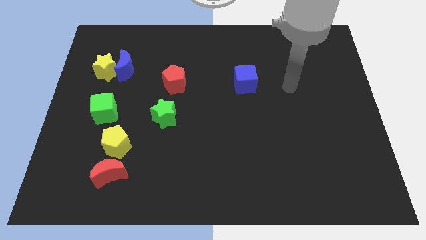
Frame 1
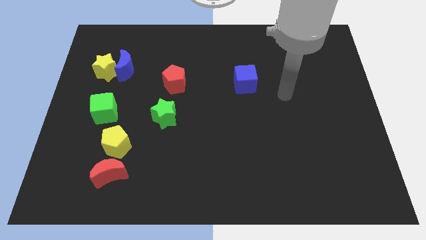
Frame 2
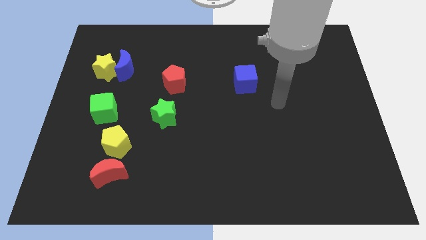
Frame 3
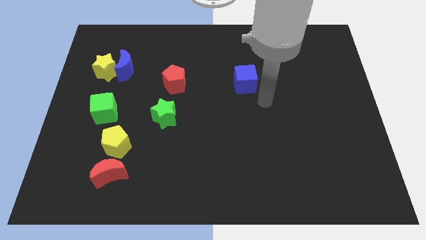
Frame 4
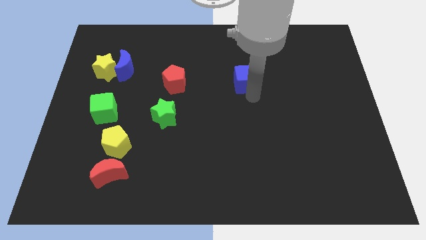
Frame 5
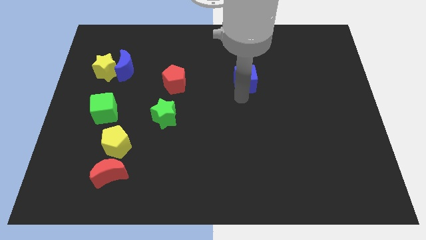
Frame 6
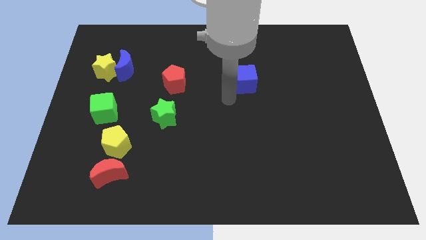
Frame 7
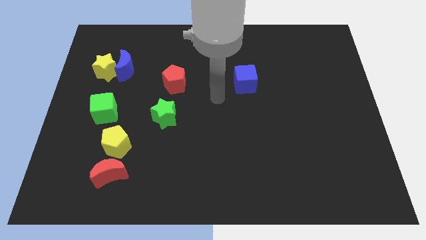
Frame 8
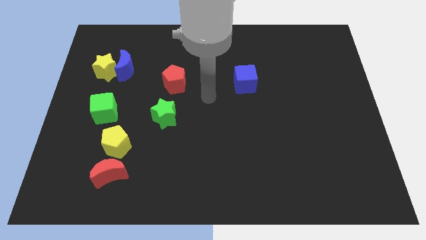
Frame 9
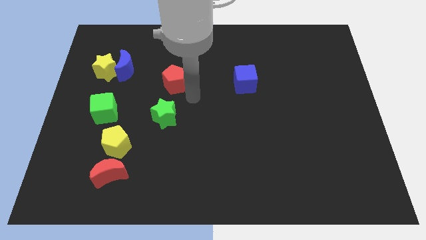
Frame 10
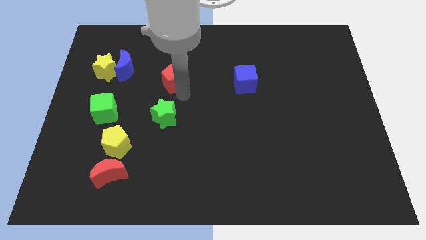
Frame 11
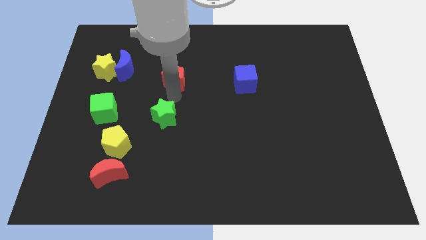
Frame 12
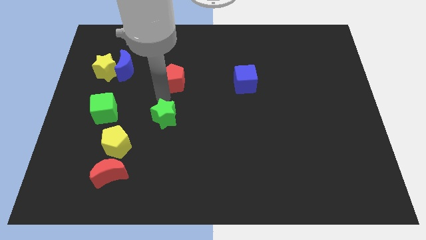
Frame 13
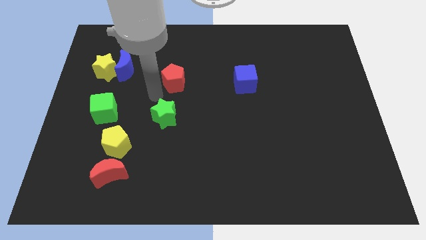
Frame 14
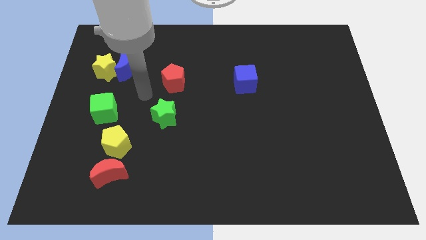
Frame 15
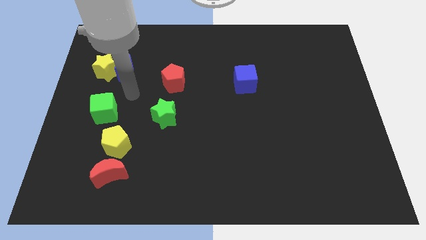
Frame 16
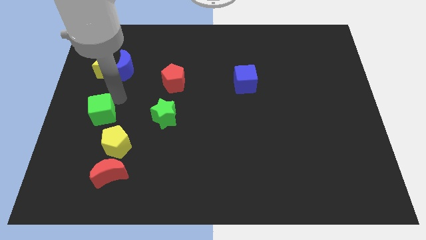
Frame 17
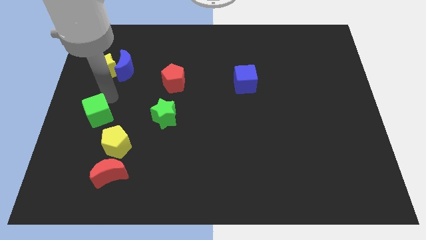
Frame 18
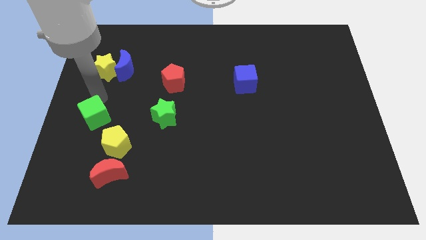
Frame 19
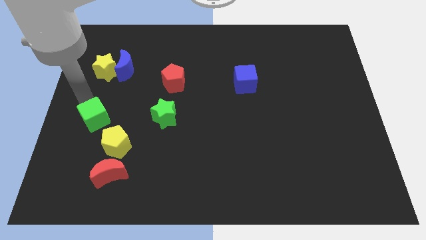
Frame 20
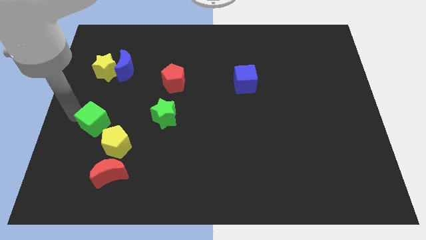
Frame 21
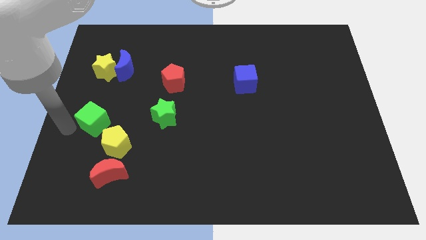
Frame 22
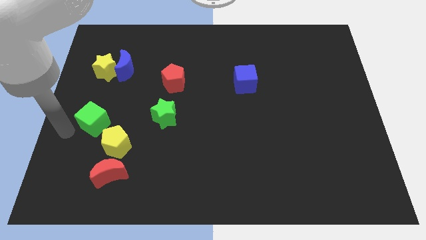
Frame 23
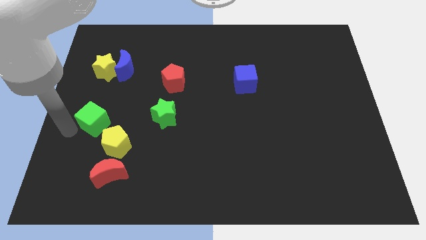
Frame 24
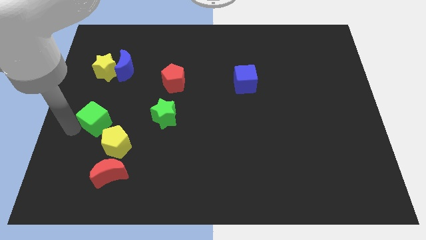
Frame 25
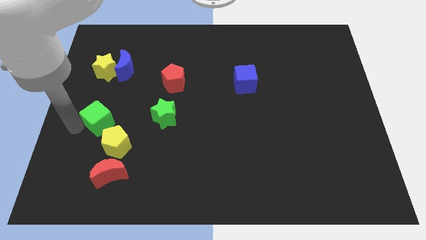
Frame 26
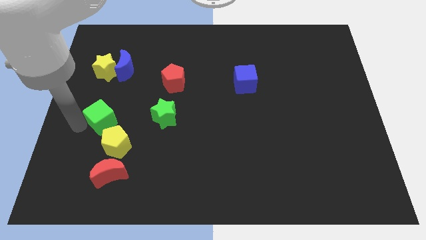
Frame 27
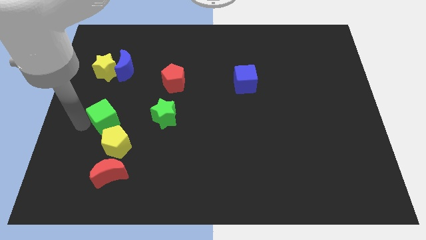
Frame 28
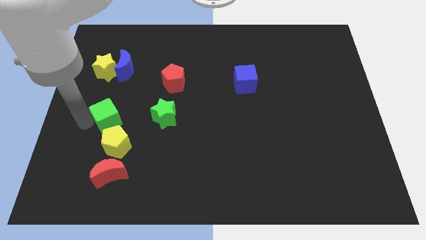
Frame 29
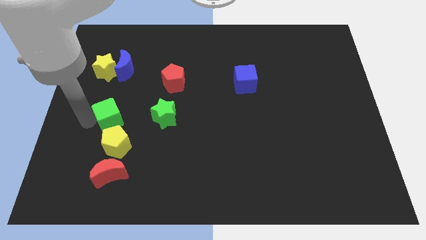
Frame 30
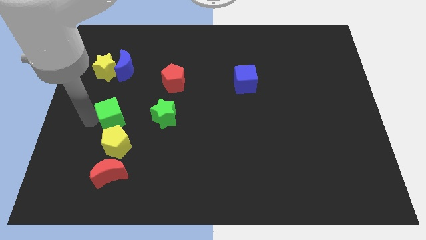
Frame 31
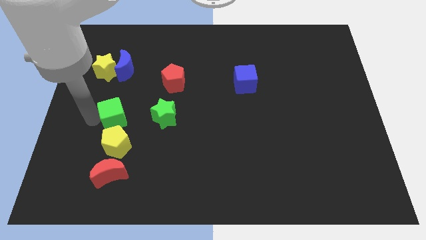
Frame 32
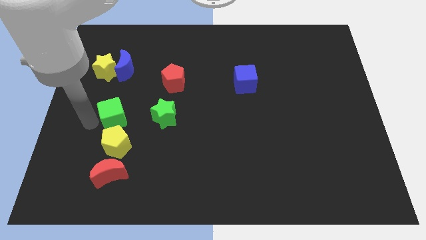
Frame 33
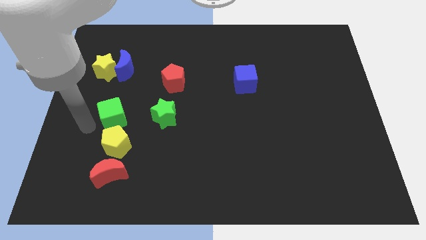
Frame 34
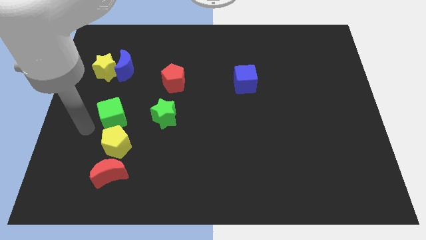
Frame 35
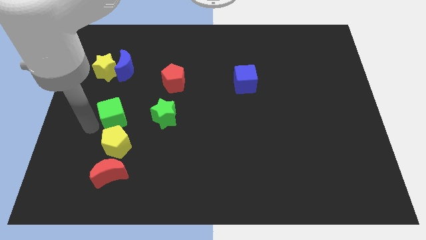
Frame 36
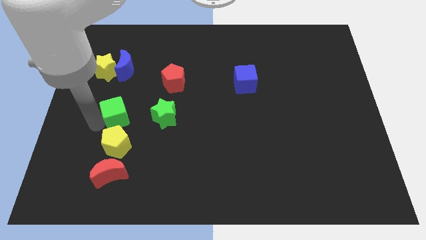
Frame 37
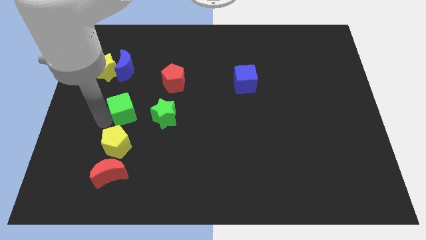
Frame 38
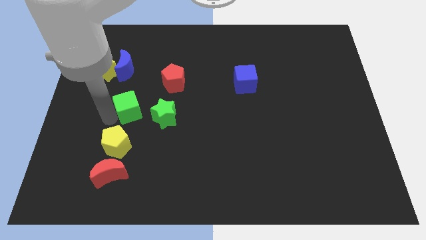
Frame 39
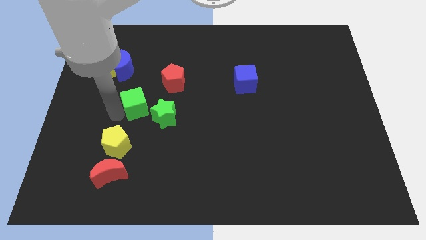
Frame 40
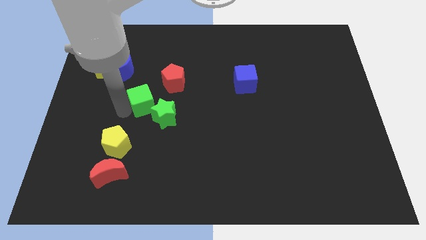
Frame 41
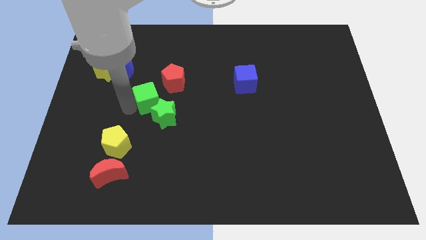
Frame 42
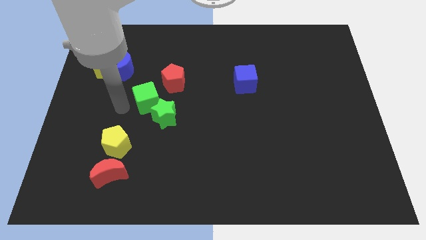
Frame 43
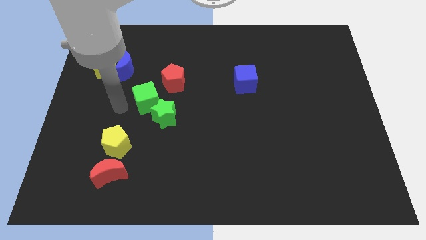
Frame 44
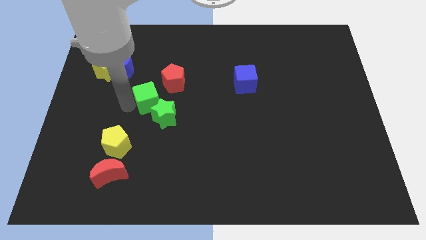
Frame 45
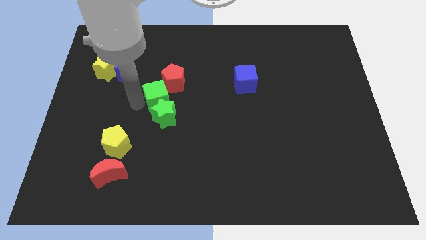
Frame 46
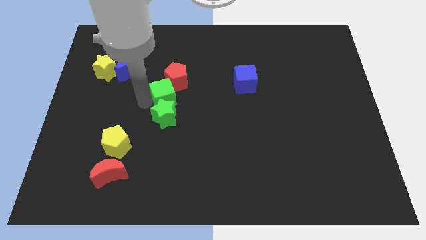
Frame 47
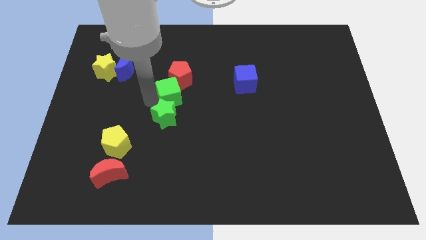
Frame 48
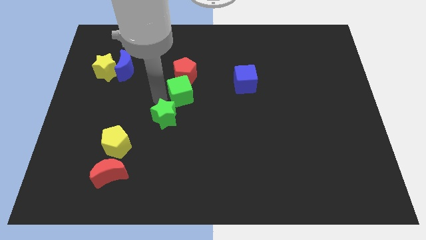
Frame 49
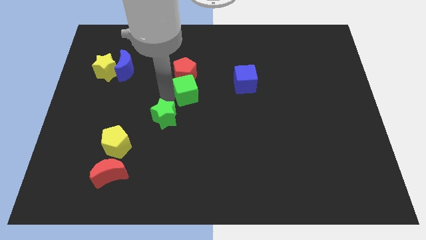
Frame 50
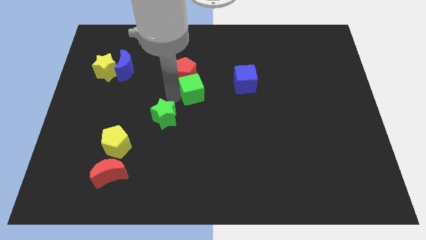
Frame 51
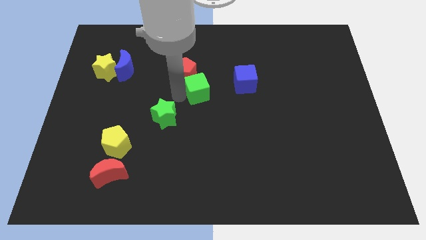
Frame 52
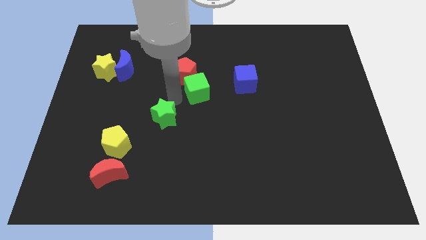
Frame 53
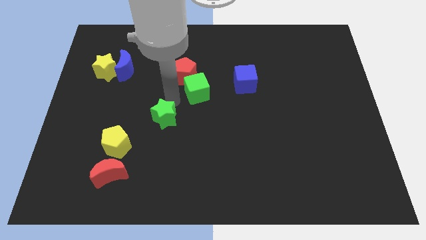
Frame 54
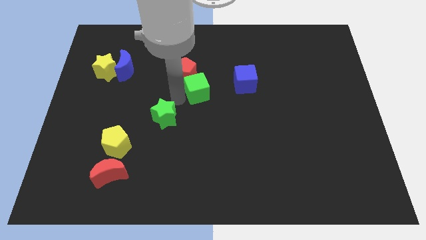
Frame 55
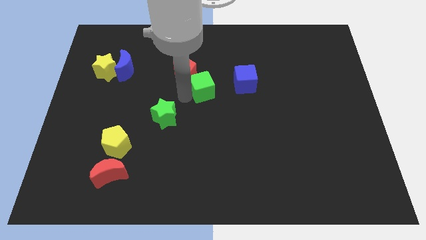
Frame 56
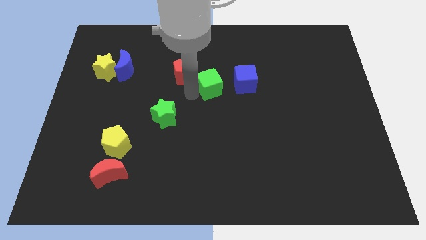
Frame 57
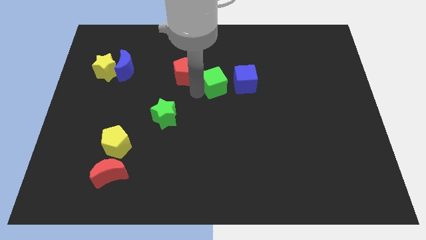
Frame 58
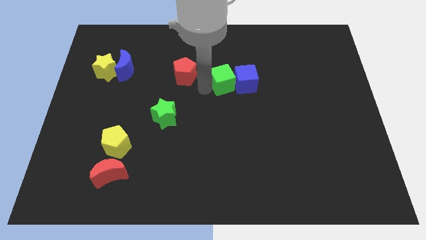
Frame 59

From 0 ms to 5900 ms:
slide the green cube towards the blue cube
